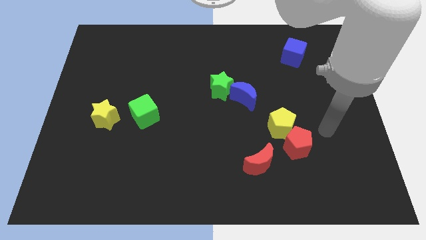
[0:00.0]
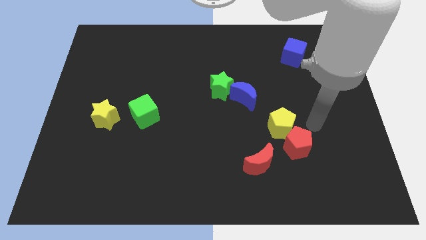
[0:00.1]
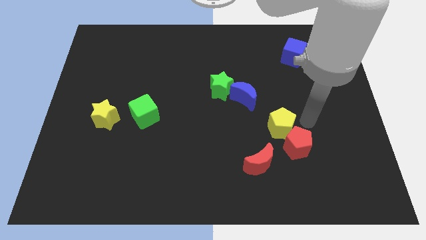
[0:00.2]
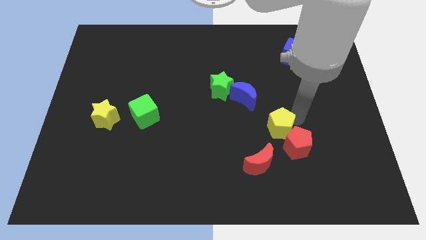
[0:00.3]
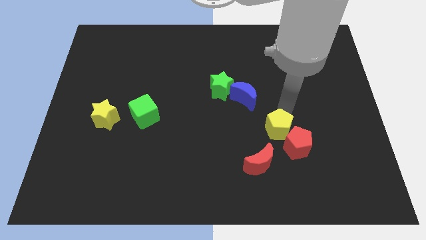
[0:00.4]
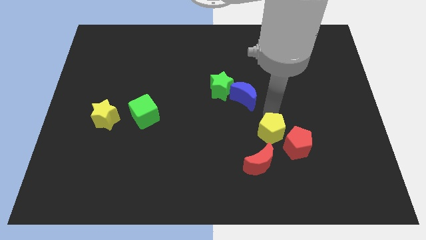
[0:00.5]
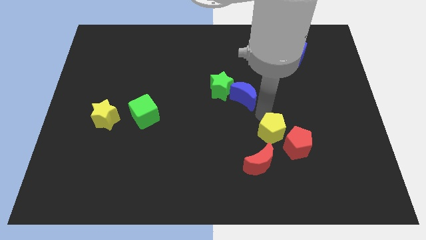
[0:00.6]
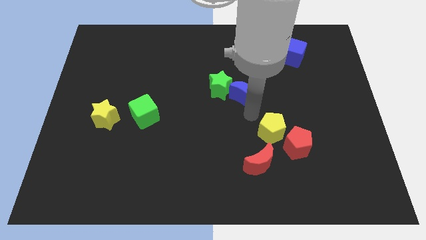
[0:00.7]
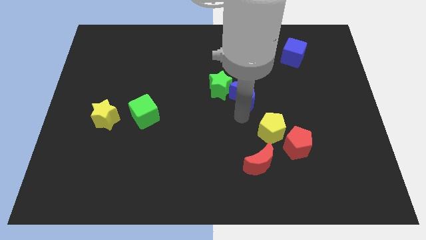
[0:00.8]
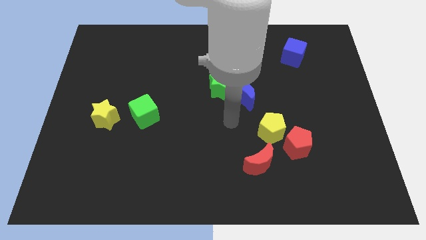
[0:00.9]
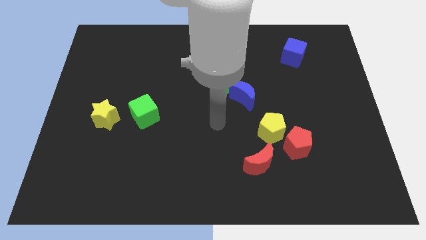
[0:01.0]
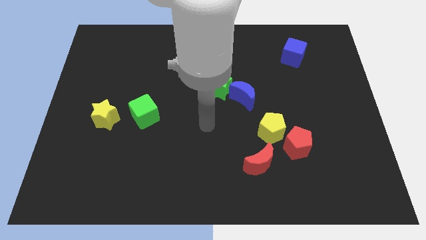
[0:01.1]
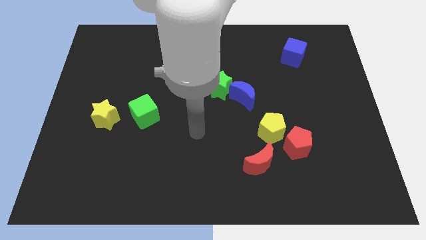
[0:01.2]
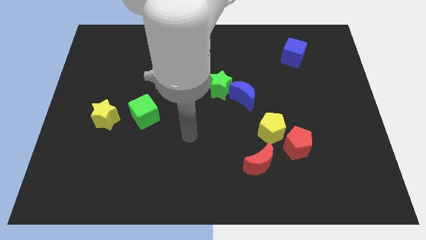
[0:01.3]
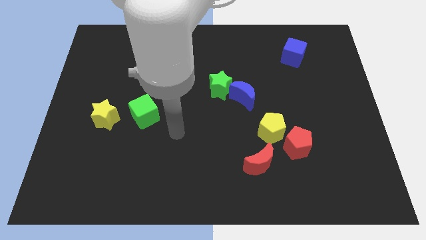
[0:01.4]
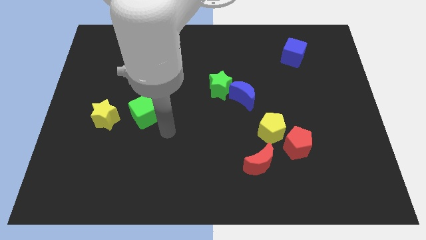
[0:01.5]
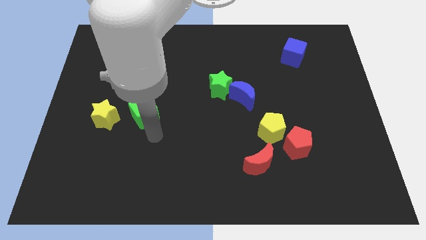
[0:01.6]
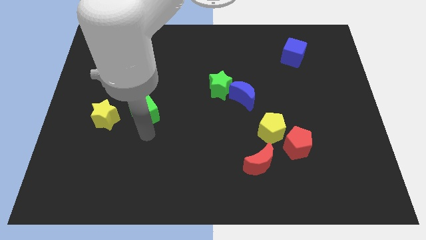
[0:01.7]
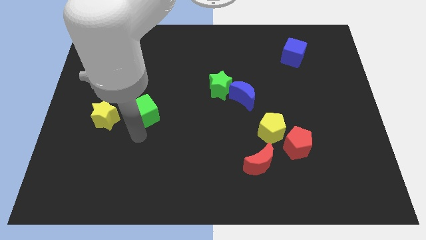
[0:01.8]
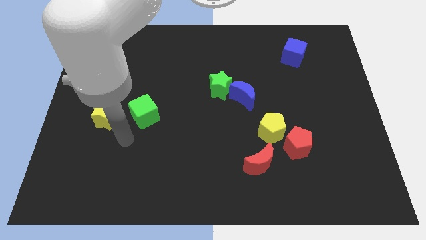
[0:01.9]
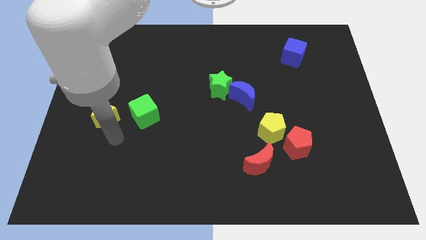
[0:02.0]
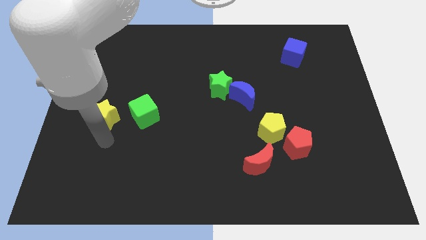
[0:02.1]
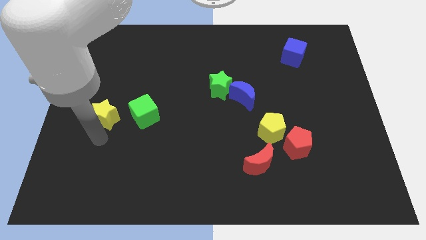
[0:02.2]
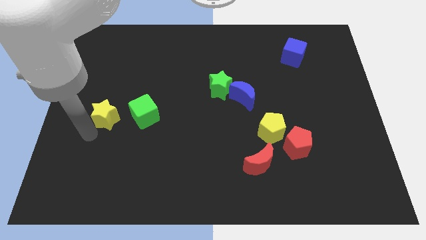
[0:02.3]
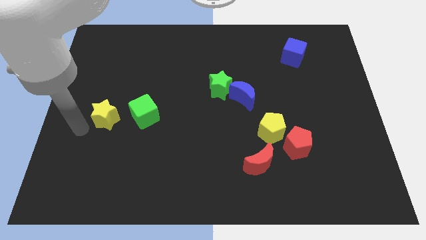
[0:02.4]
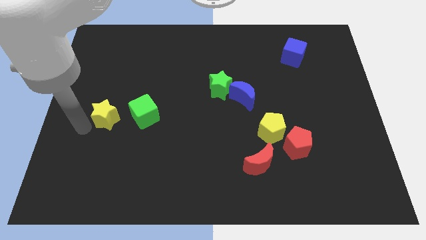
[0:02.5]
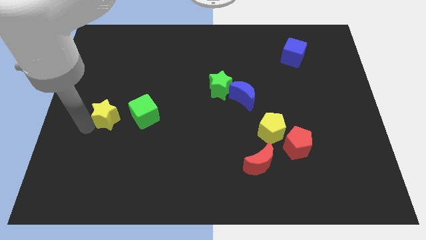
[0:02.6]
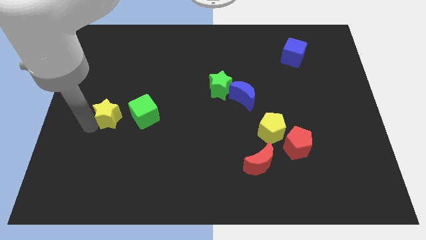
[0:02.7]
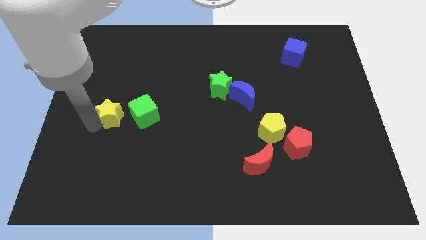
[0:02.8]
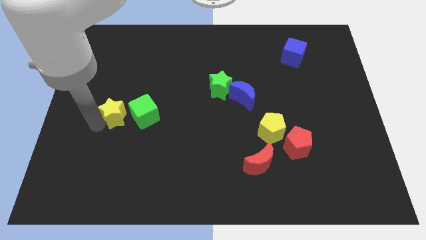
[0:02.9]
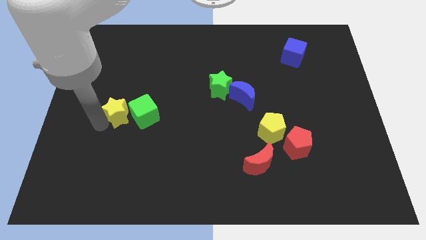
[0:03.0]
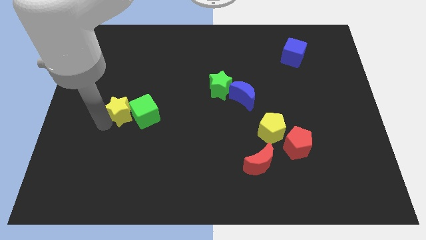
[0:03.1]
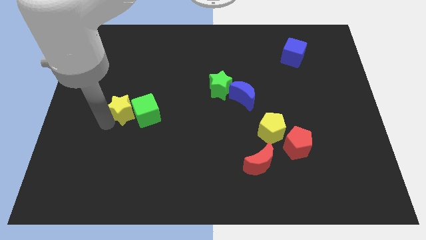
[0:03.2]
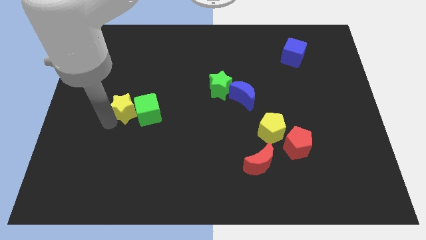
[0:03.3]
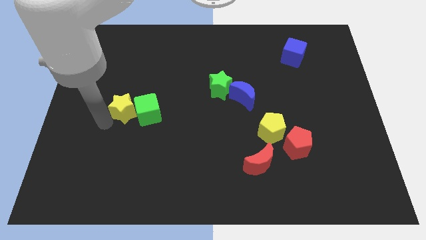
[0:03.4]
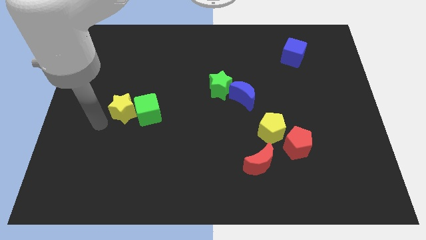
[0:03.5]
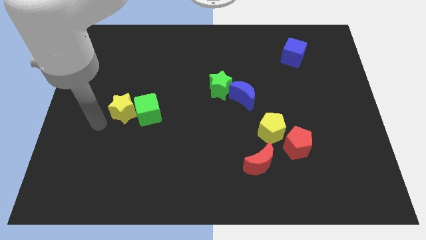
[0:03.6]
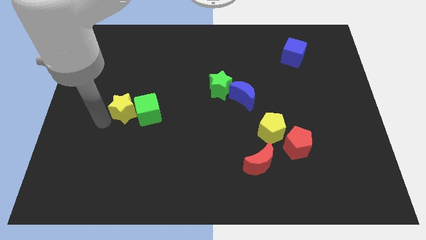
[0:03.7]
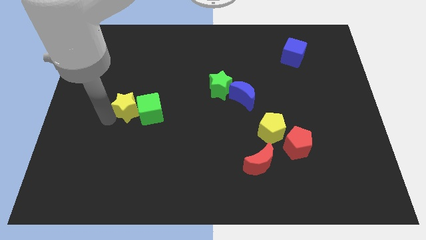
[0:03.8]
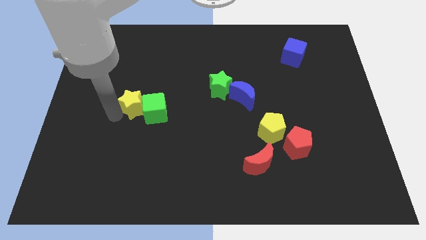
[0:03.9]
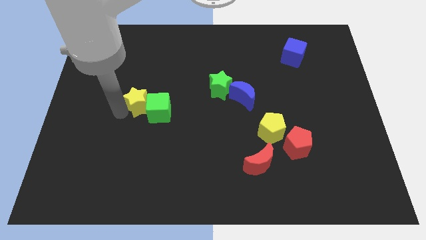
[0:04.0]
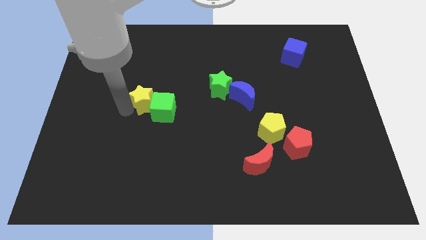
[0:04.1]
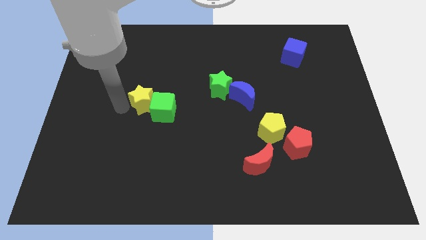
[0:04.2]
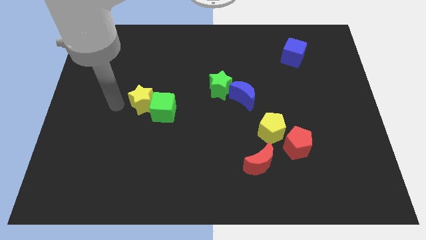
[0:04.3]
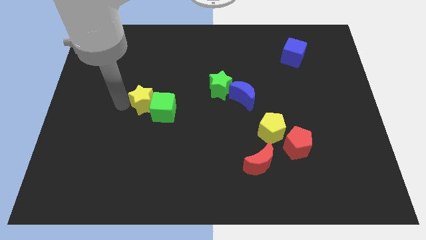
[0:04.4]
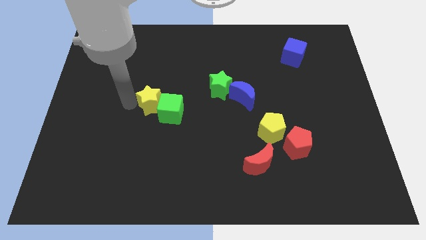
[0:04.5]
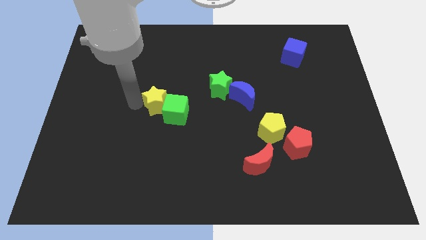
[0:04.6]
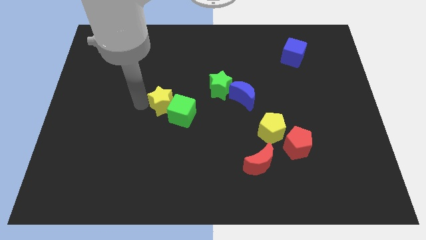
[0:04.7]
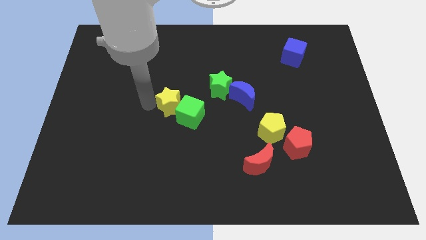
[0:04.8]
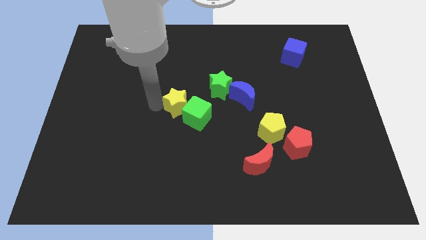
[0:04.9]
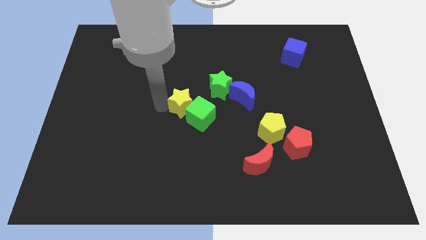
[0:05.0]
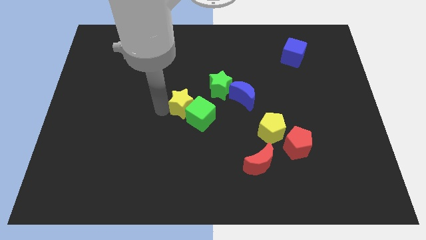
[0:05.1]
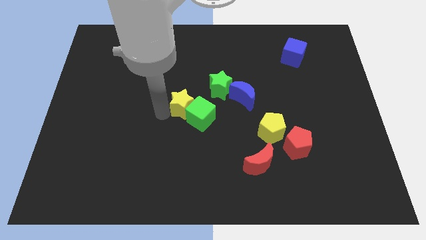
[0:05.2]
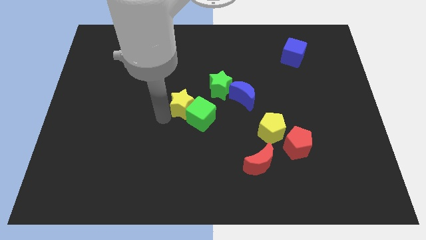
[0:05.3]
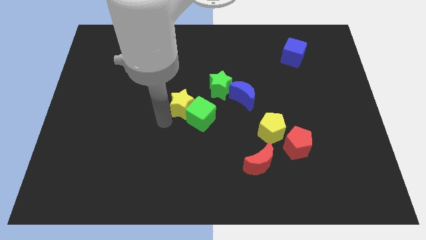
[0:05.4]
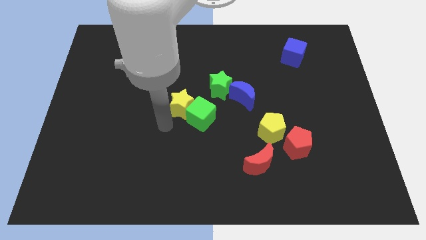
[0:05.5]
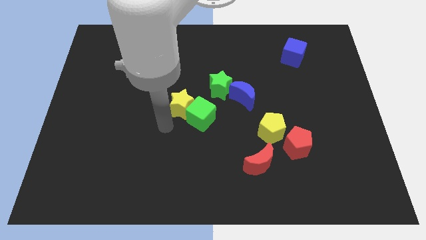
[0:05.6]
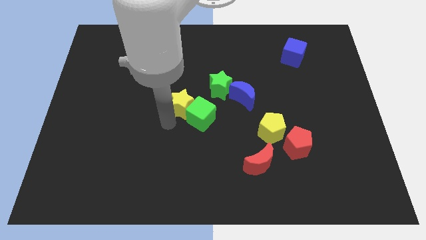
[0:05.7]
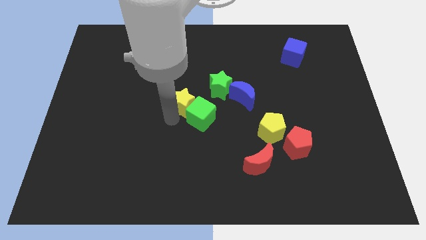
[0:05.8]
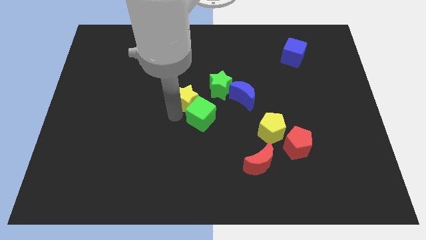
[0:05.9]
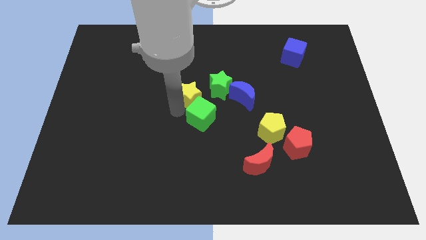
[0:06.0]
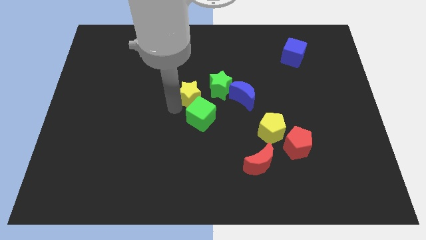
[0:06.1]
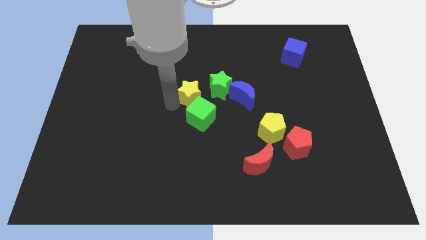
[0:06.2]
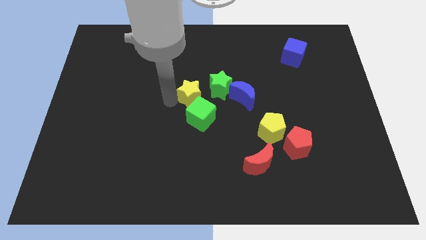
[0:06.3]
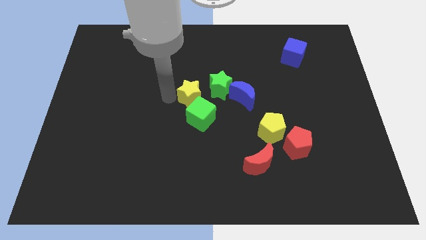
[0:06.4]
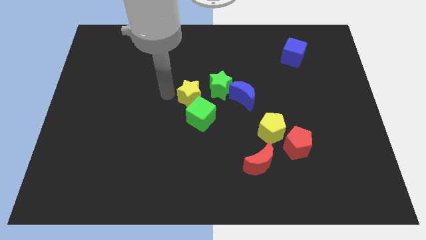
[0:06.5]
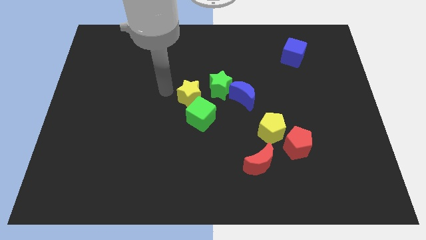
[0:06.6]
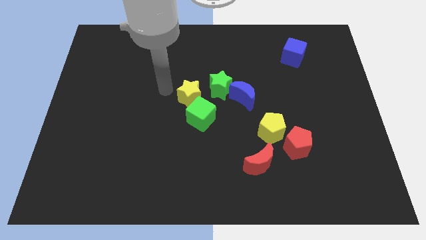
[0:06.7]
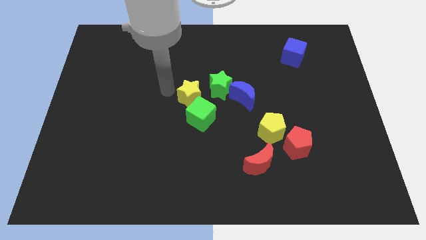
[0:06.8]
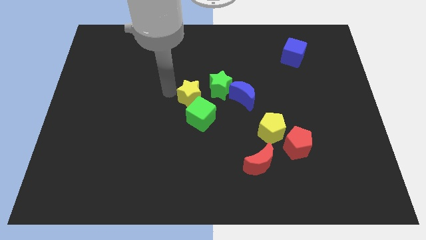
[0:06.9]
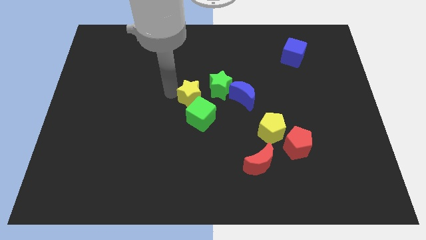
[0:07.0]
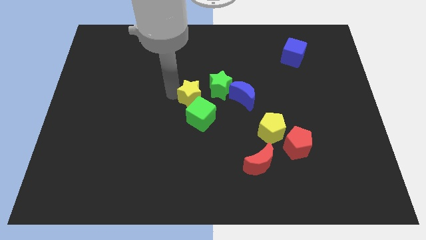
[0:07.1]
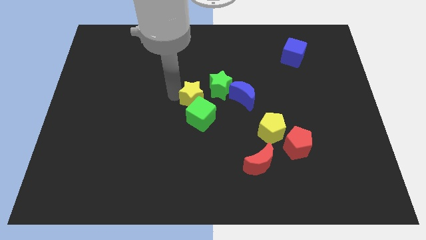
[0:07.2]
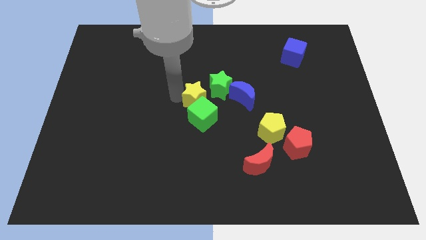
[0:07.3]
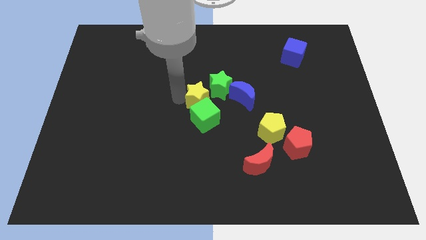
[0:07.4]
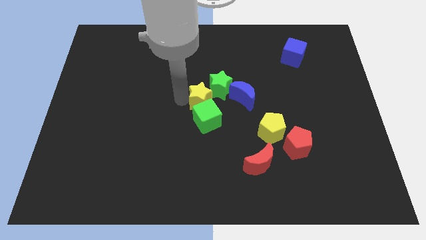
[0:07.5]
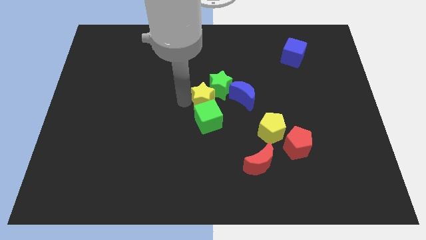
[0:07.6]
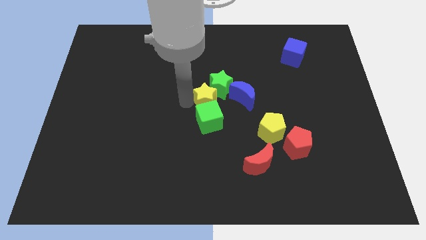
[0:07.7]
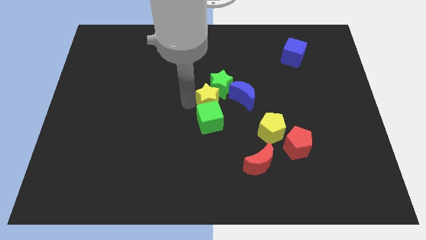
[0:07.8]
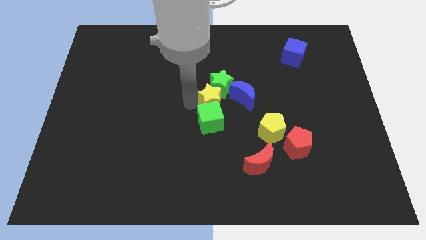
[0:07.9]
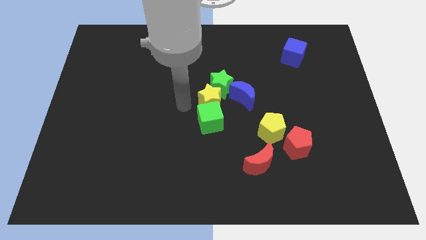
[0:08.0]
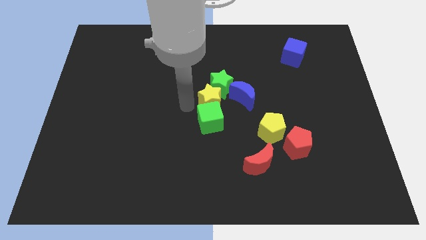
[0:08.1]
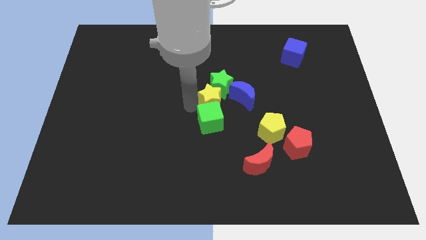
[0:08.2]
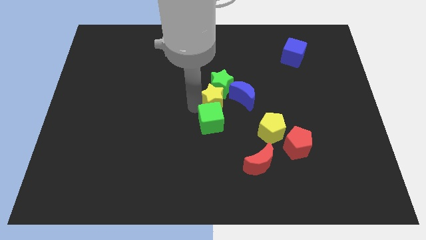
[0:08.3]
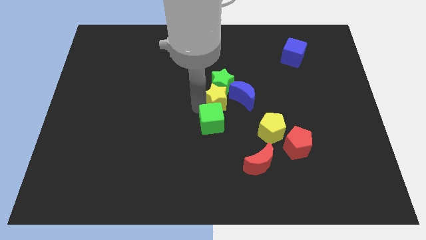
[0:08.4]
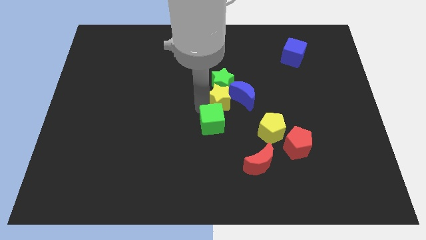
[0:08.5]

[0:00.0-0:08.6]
put the yellow star towards the blue moon
